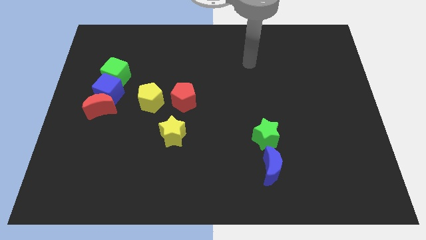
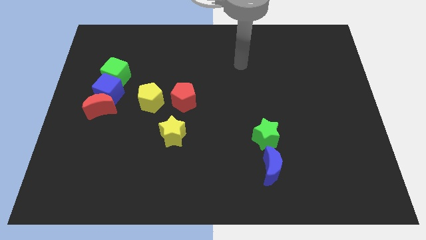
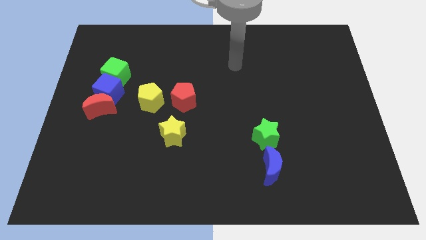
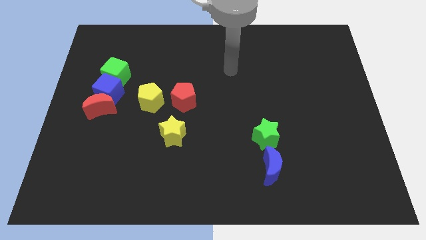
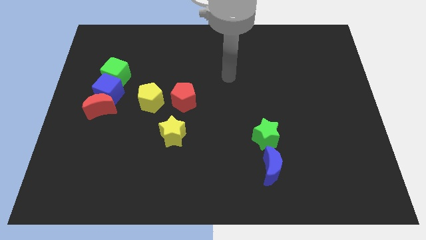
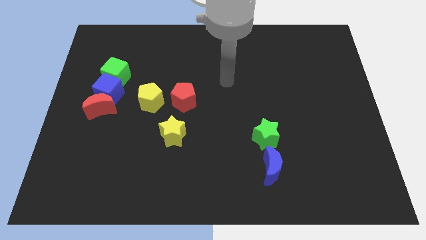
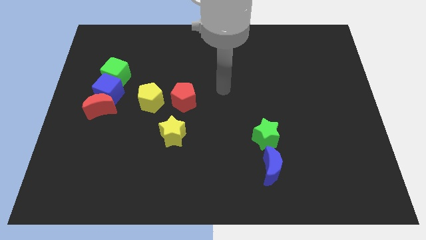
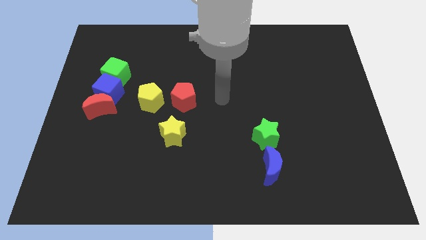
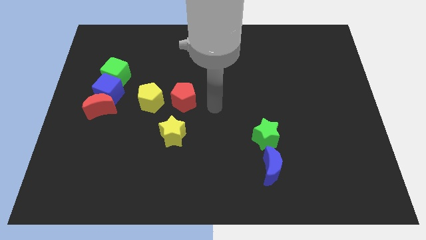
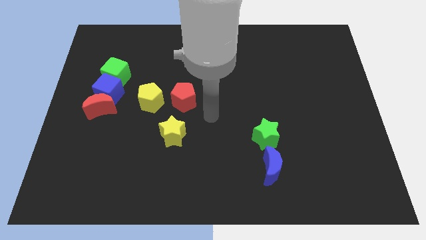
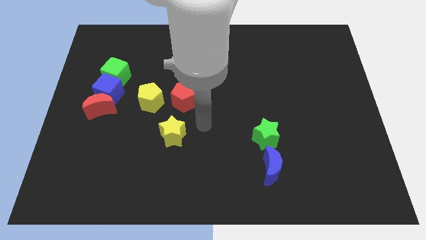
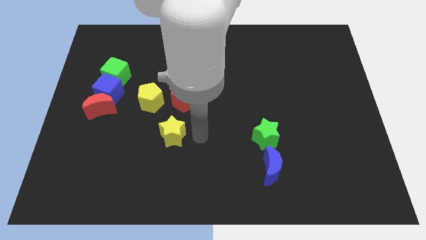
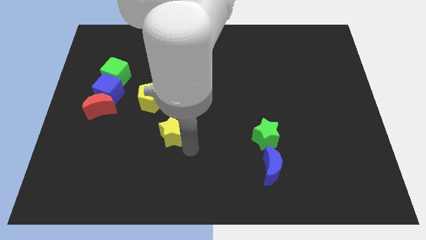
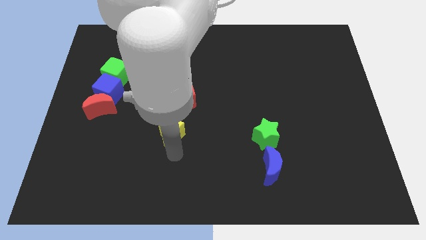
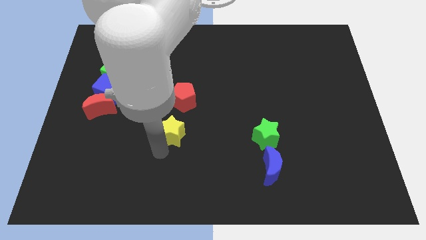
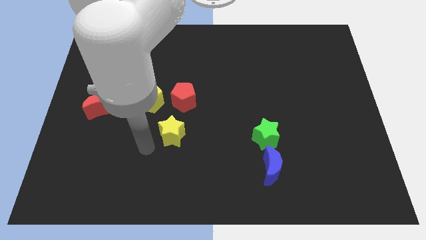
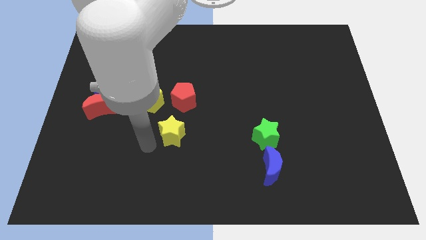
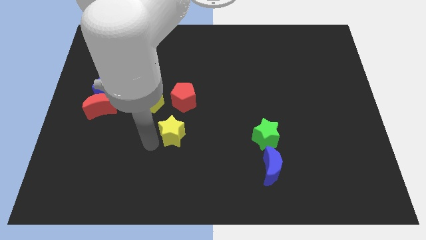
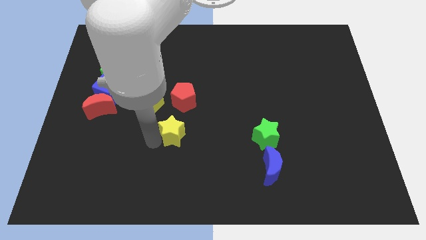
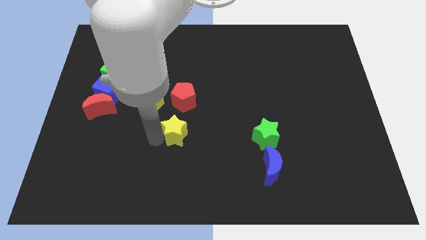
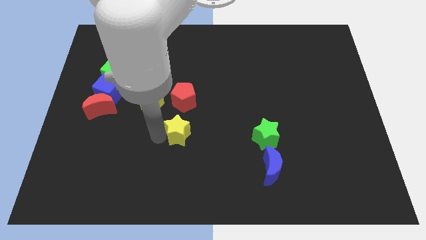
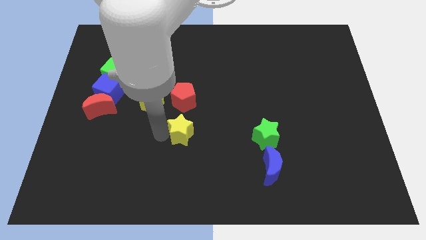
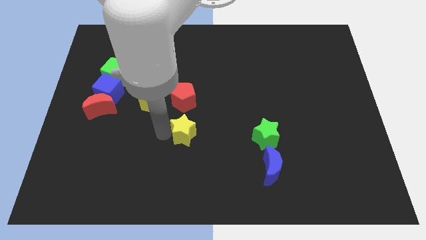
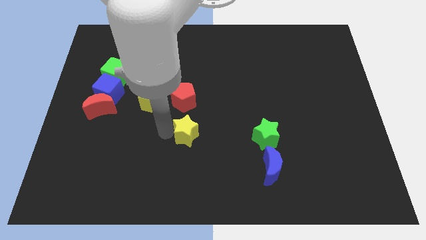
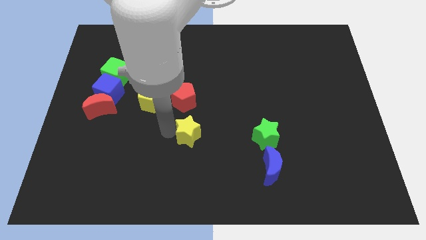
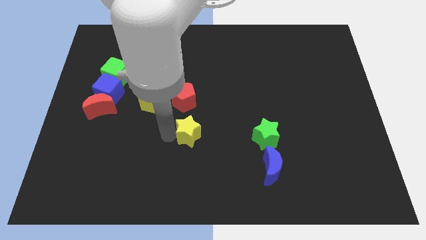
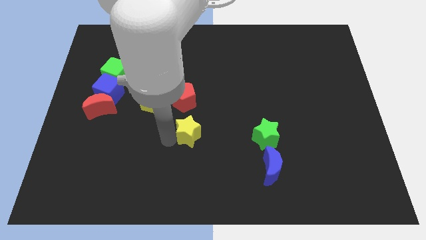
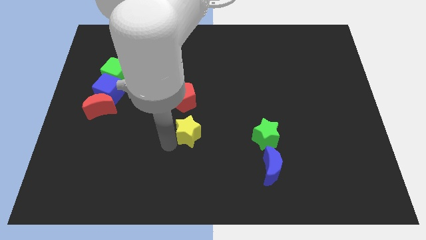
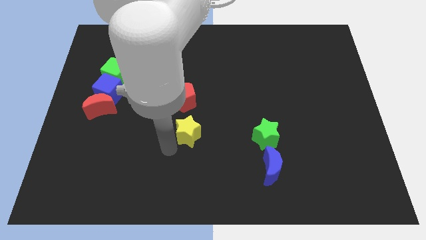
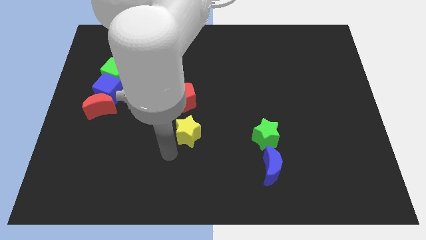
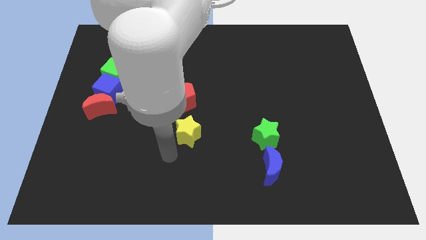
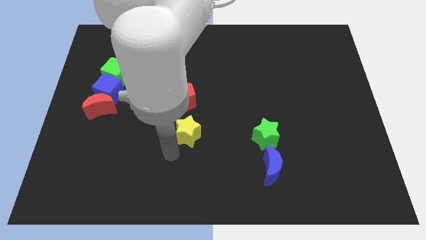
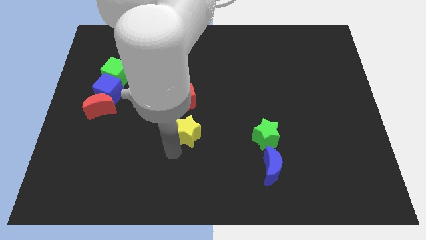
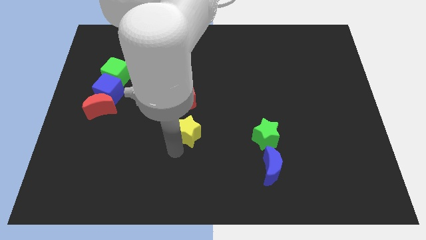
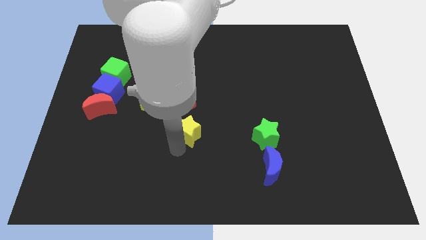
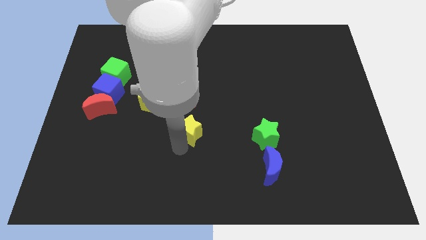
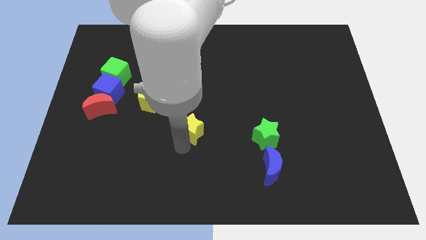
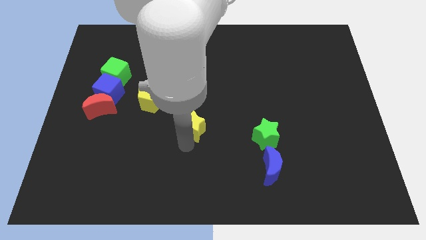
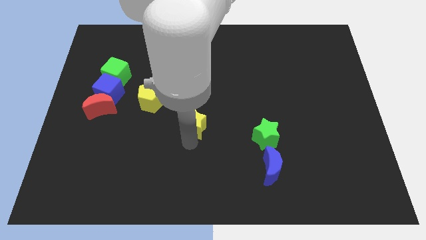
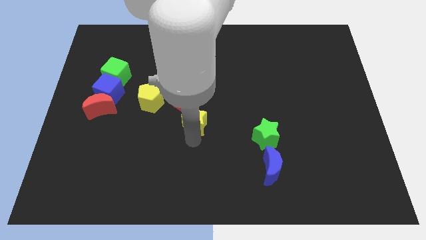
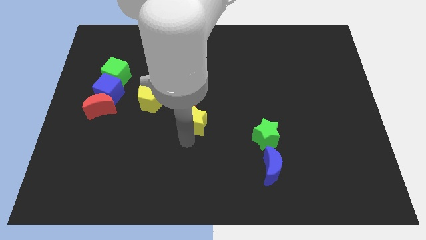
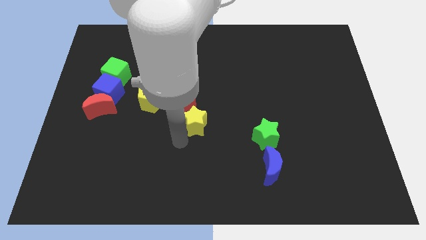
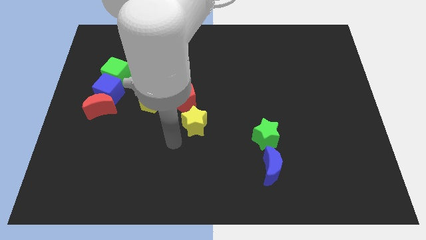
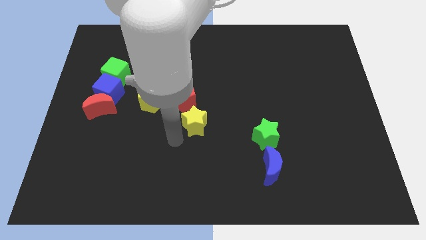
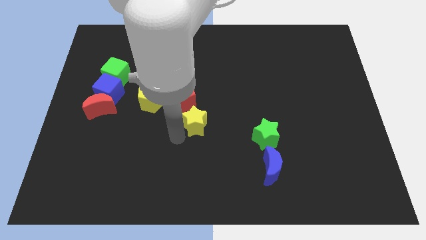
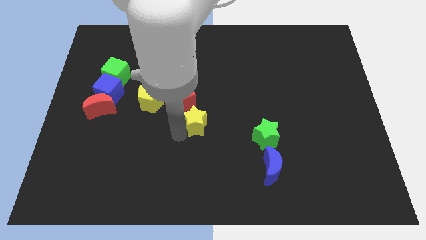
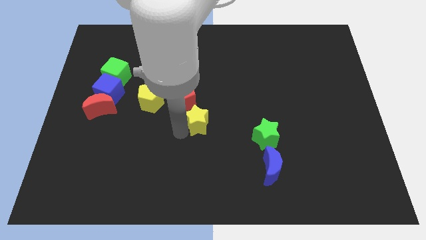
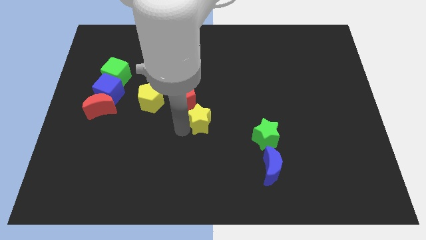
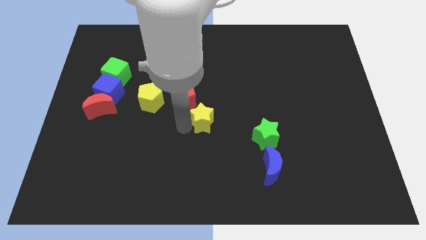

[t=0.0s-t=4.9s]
slightly slide the yellow star up and to the right

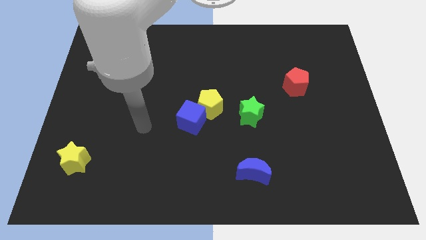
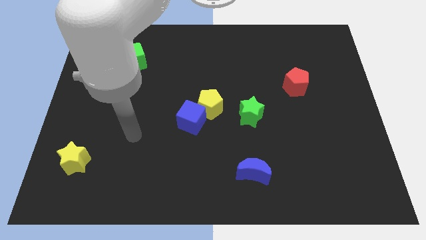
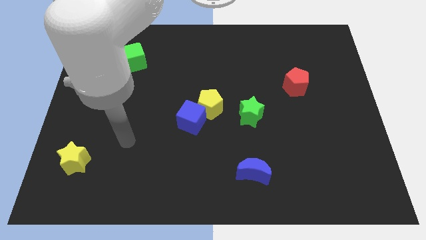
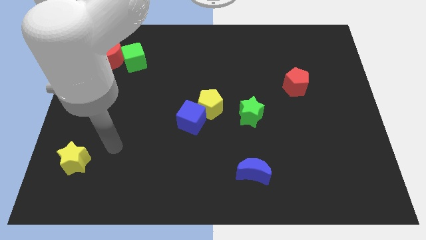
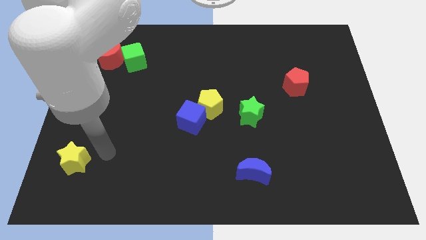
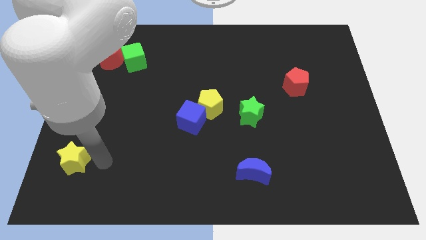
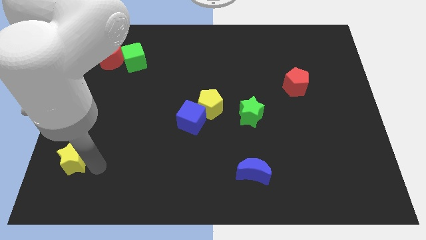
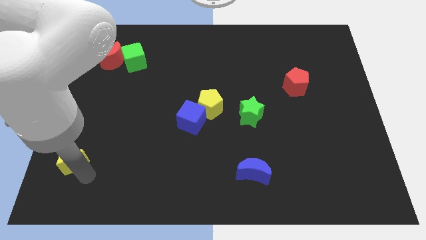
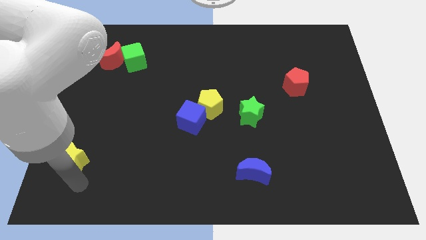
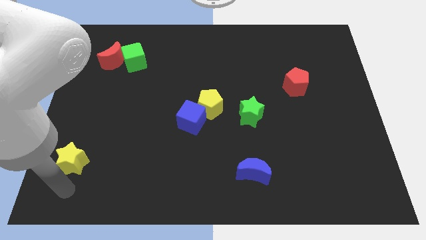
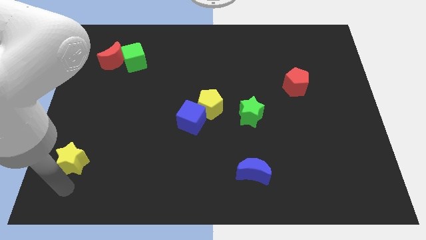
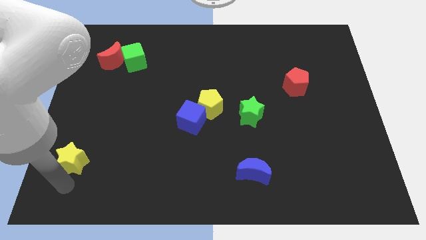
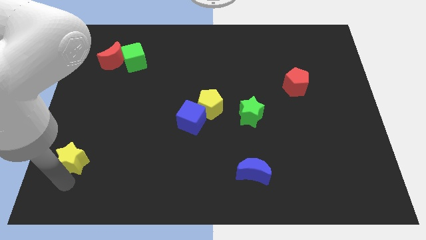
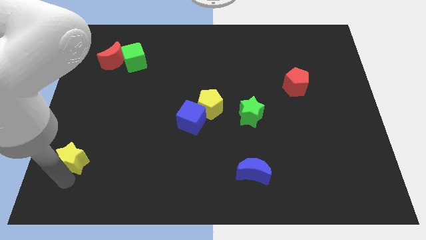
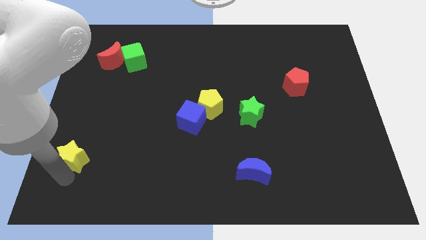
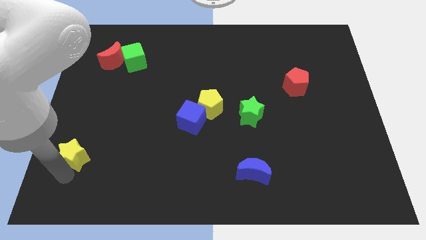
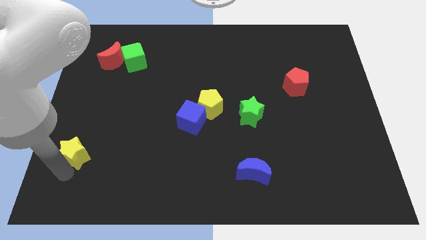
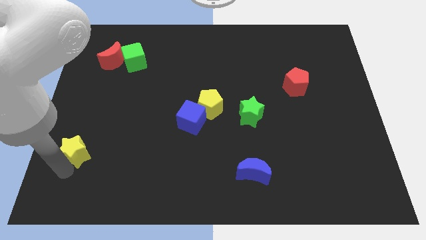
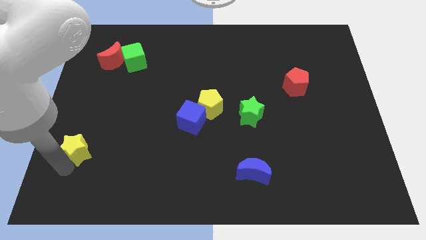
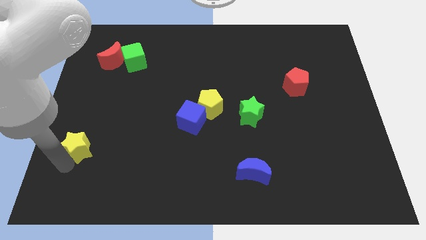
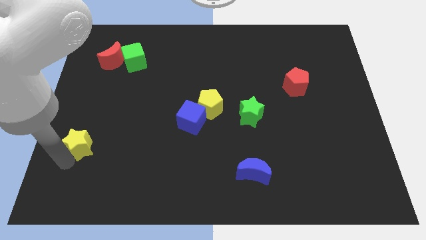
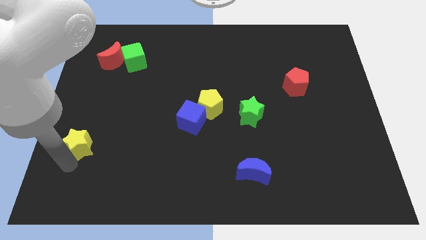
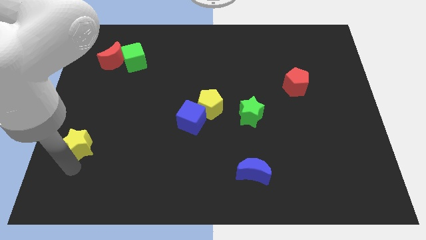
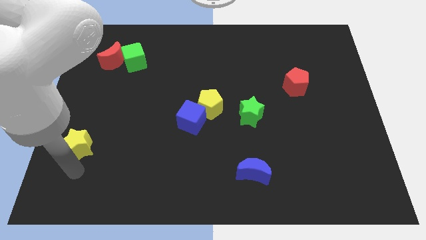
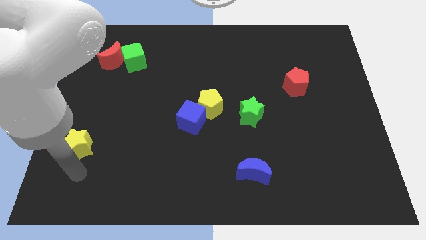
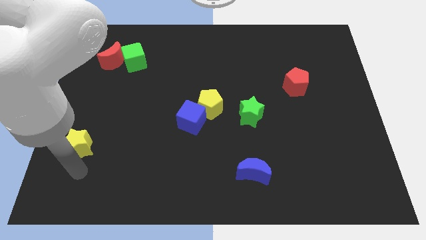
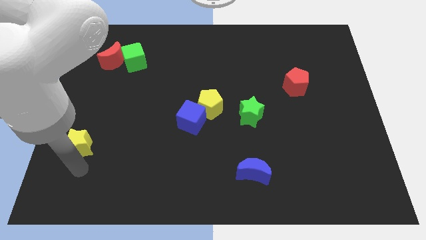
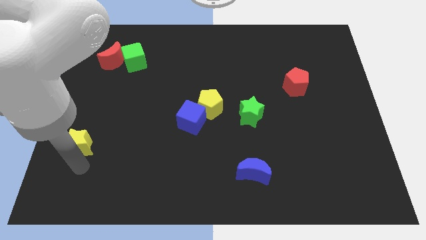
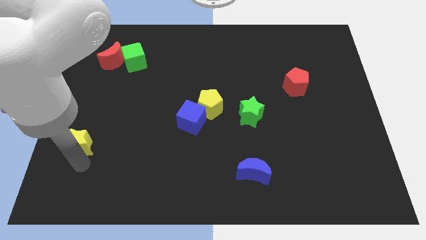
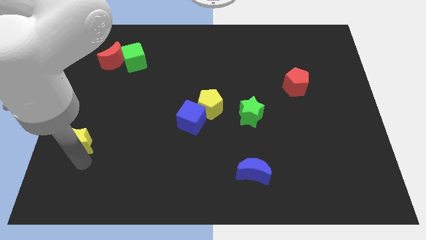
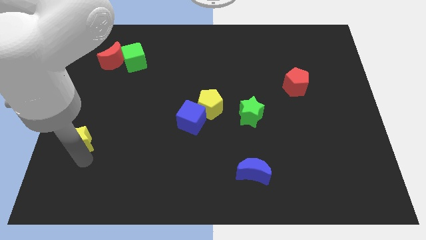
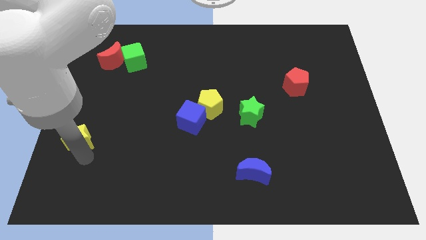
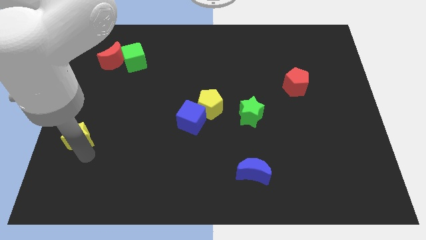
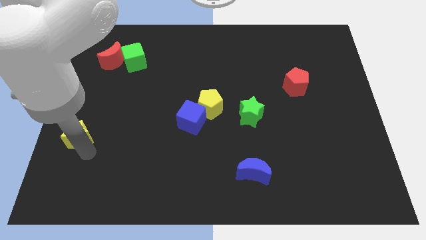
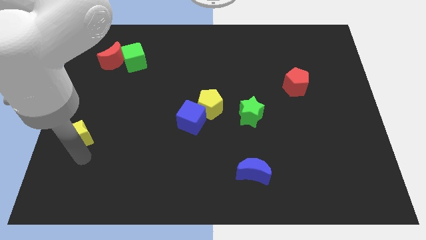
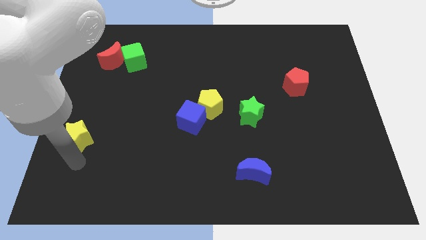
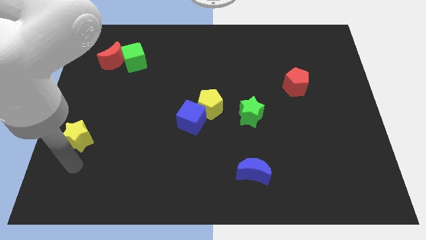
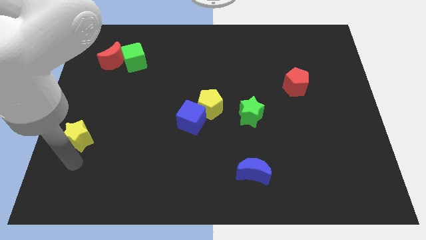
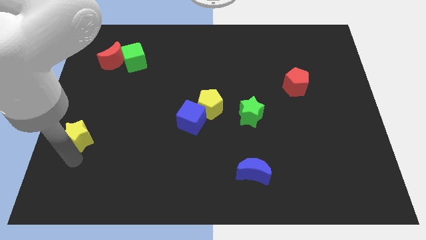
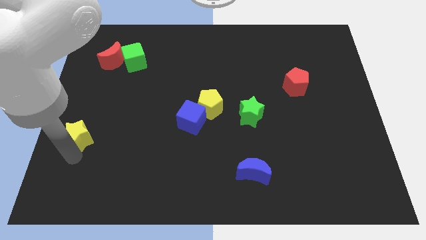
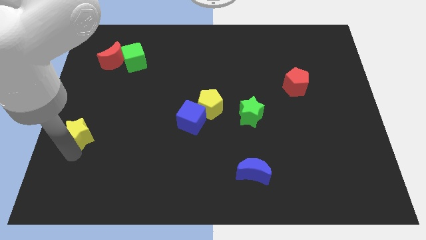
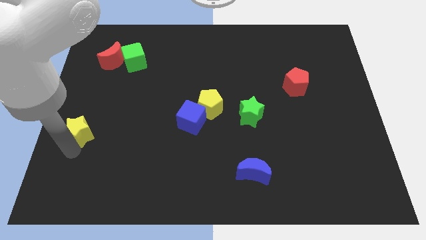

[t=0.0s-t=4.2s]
slightly slide the yellow star up
